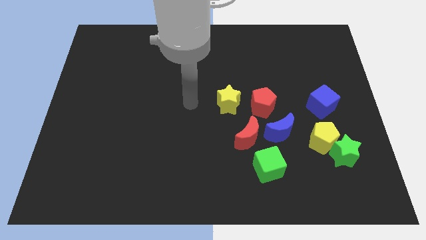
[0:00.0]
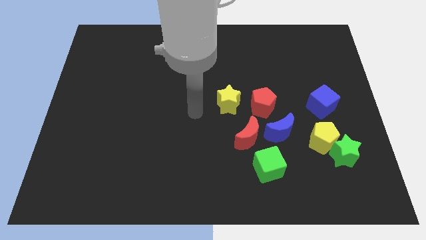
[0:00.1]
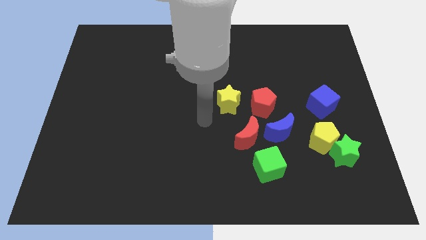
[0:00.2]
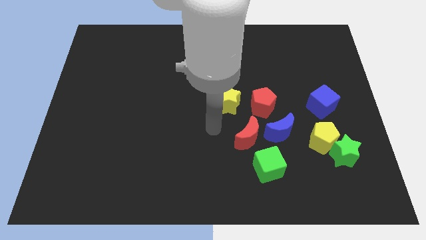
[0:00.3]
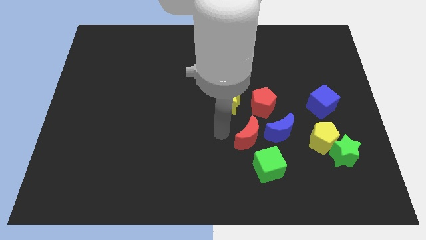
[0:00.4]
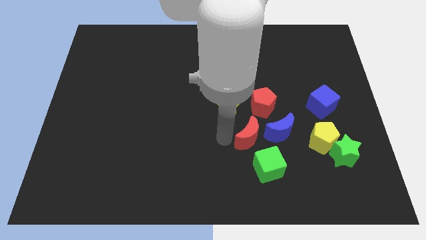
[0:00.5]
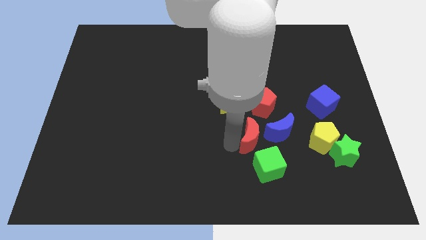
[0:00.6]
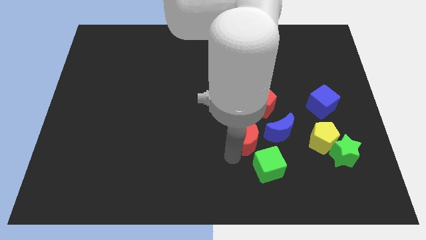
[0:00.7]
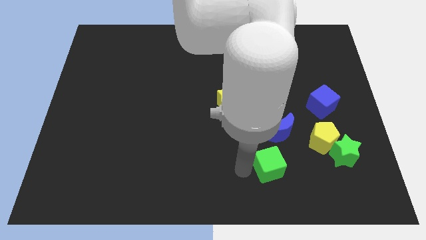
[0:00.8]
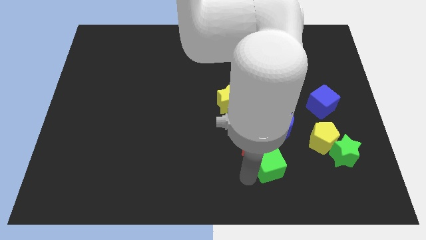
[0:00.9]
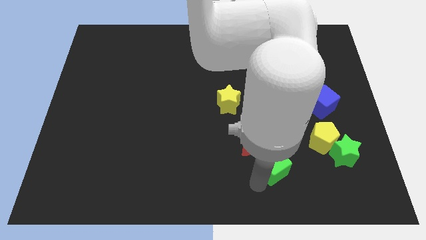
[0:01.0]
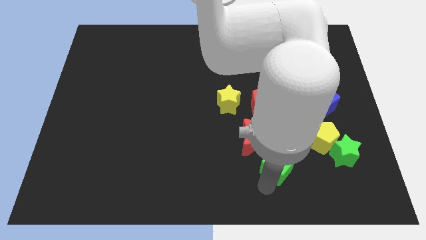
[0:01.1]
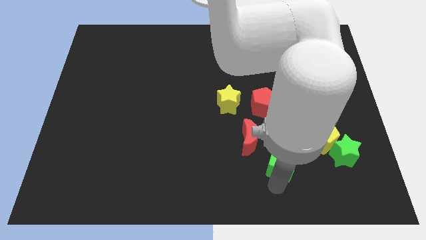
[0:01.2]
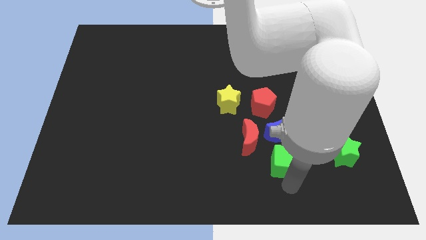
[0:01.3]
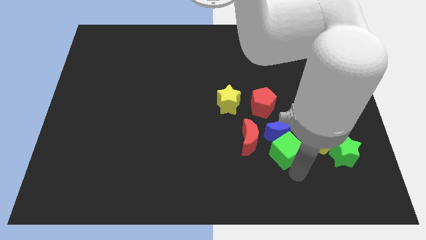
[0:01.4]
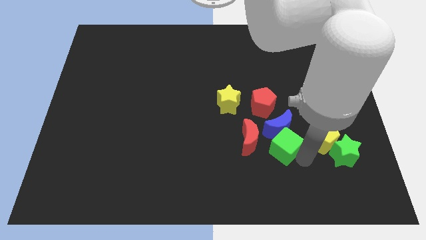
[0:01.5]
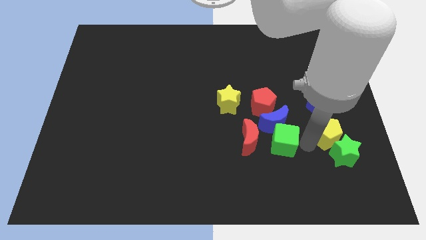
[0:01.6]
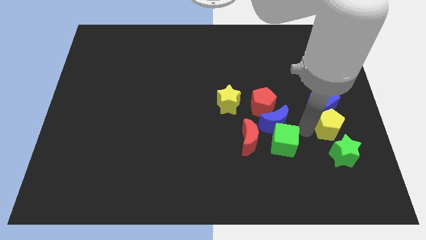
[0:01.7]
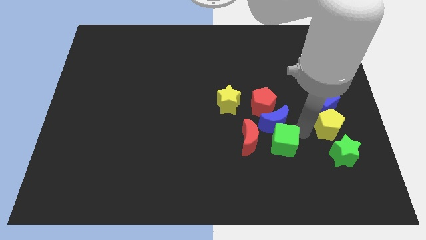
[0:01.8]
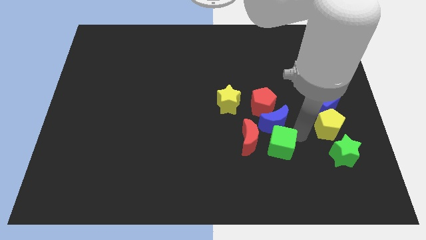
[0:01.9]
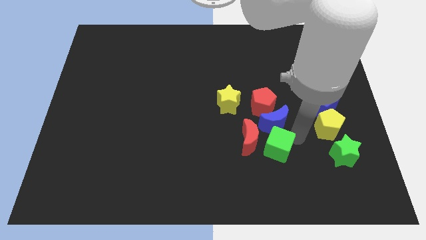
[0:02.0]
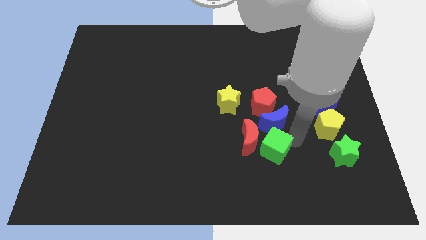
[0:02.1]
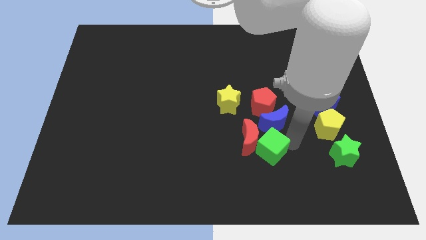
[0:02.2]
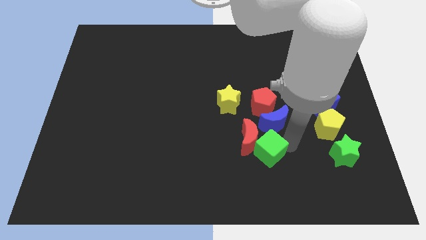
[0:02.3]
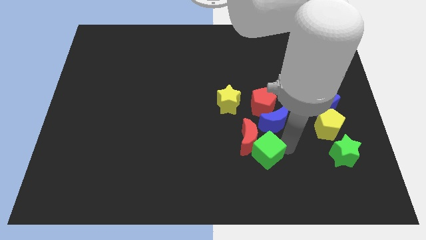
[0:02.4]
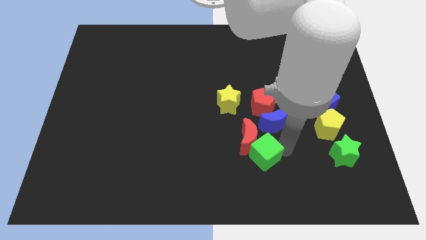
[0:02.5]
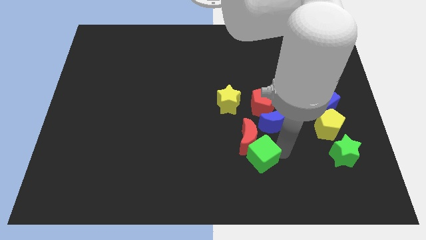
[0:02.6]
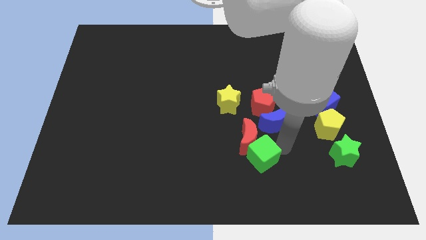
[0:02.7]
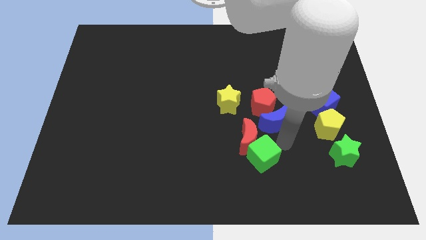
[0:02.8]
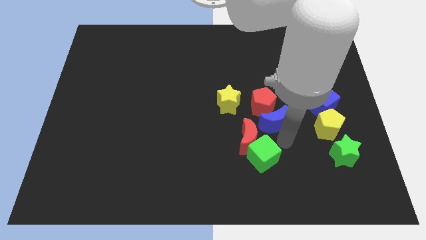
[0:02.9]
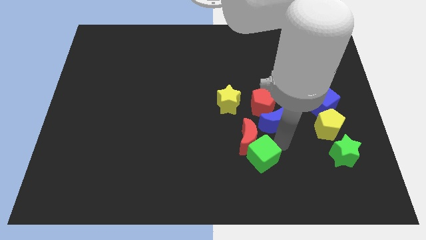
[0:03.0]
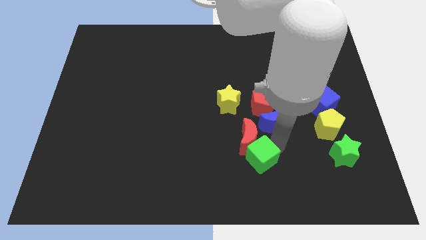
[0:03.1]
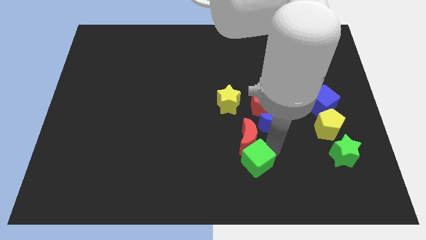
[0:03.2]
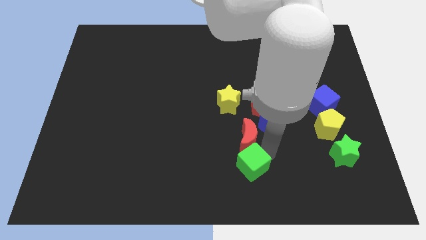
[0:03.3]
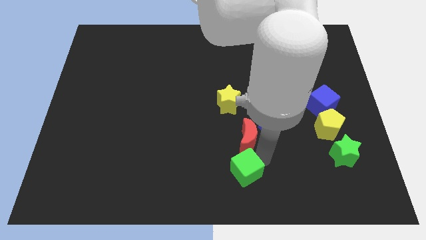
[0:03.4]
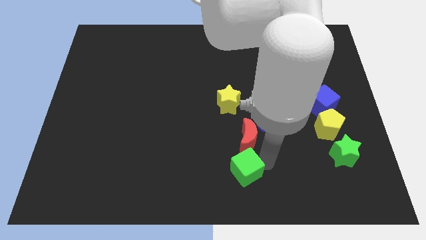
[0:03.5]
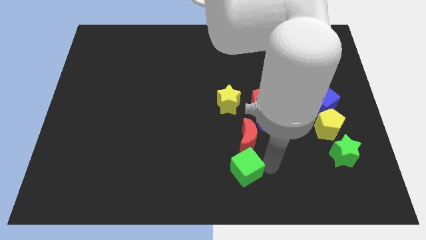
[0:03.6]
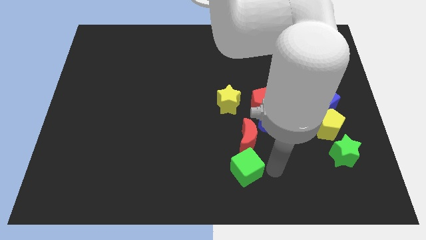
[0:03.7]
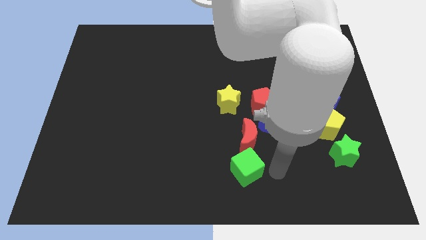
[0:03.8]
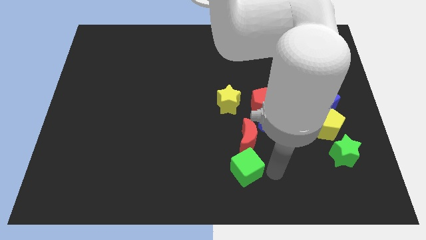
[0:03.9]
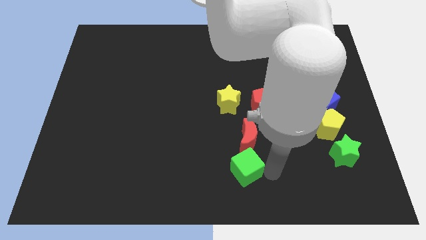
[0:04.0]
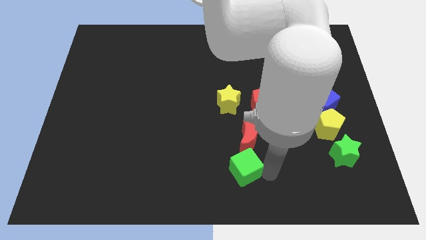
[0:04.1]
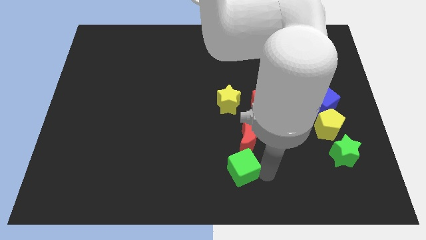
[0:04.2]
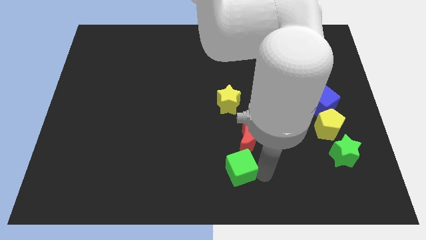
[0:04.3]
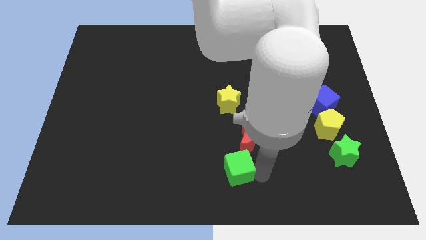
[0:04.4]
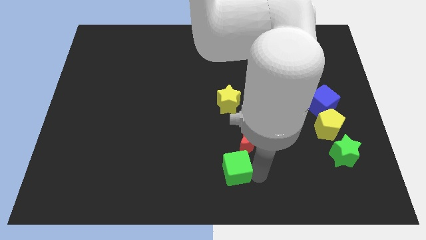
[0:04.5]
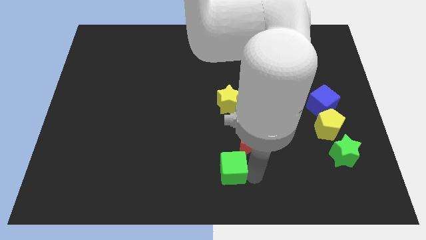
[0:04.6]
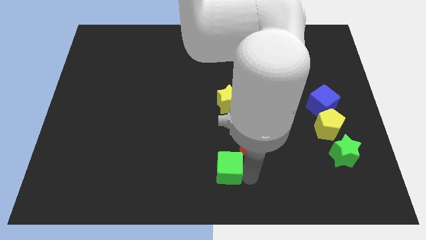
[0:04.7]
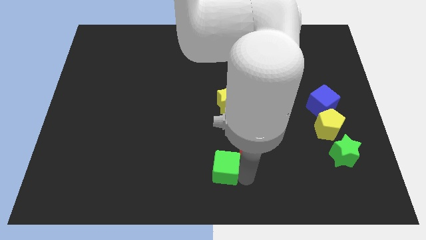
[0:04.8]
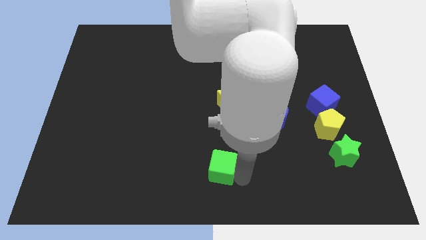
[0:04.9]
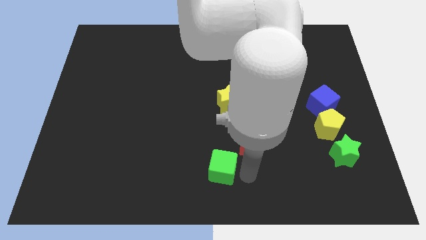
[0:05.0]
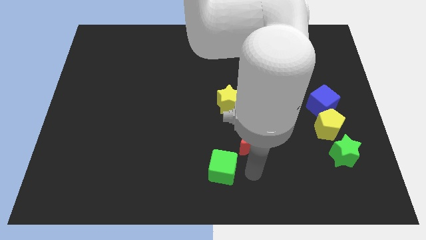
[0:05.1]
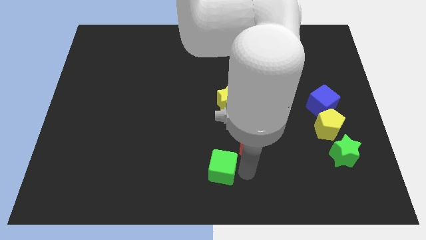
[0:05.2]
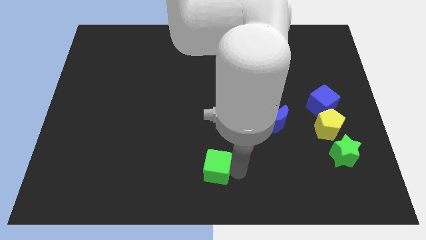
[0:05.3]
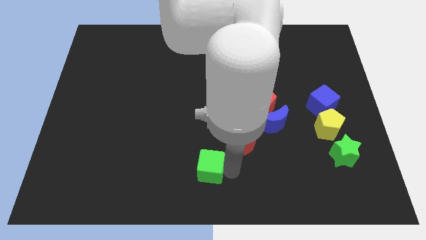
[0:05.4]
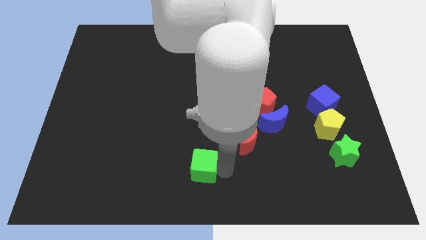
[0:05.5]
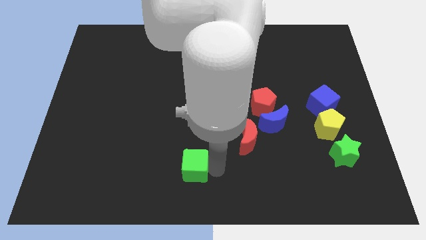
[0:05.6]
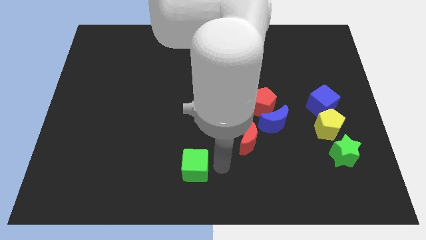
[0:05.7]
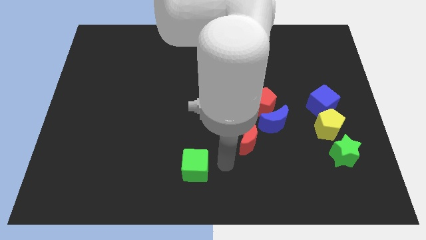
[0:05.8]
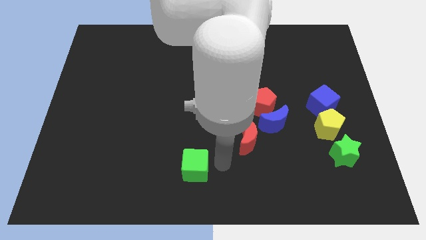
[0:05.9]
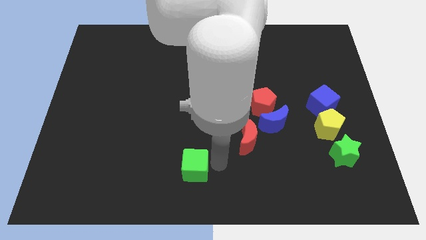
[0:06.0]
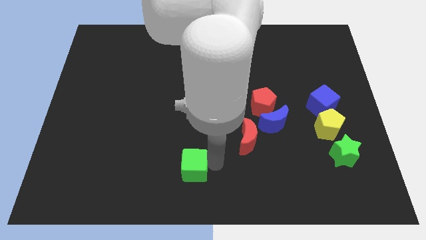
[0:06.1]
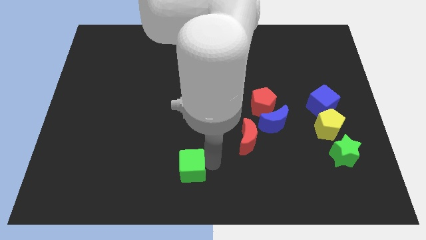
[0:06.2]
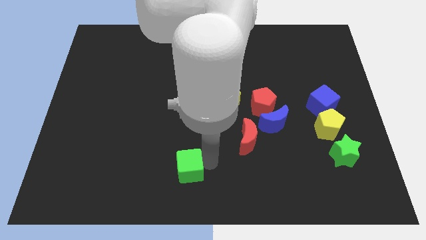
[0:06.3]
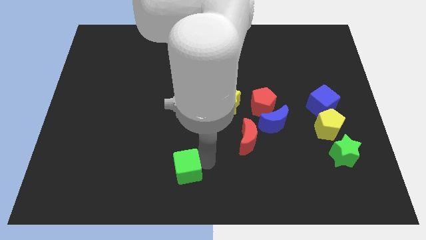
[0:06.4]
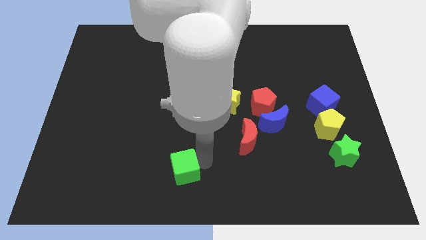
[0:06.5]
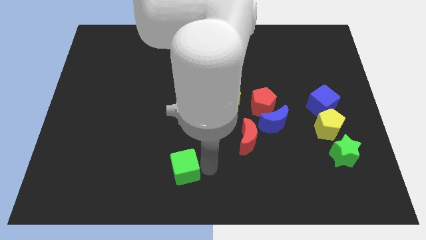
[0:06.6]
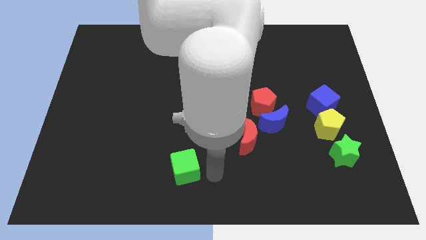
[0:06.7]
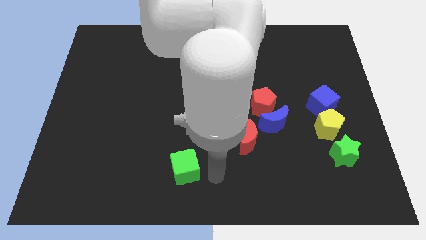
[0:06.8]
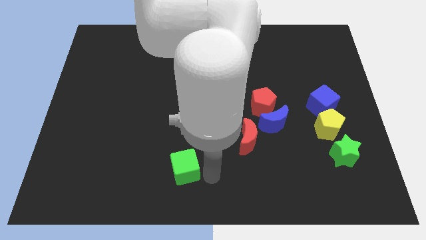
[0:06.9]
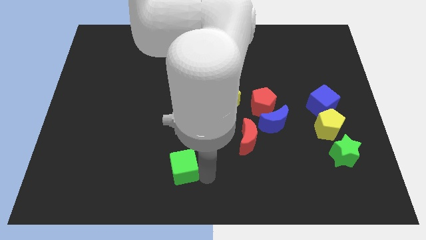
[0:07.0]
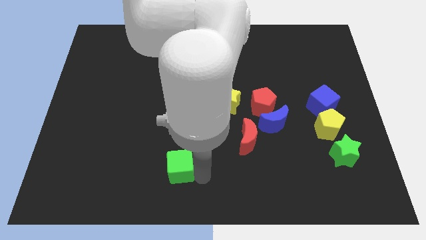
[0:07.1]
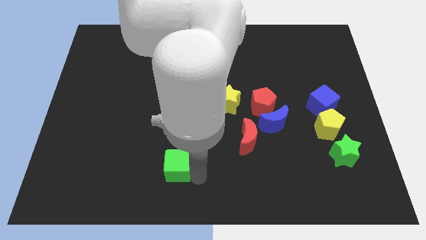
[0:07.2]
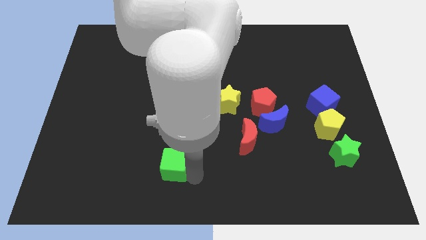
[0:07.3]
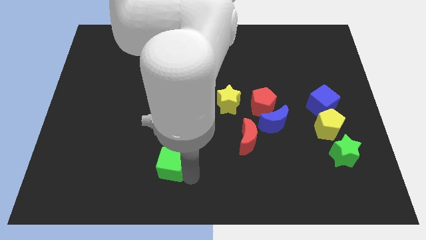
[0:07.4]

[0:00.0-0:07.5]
slide the green cube left

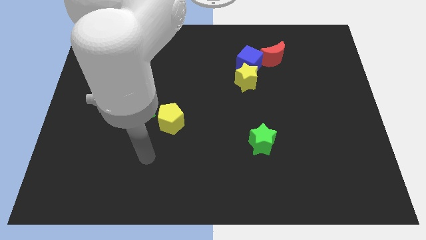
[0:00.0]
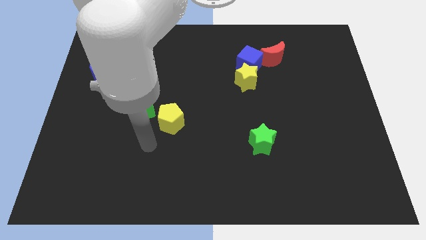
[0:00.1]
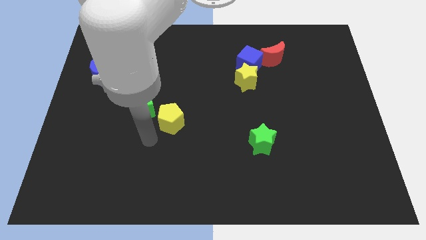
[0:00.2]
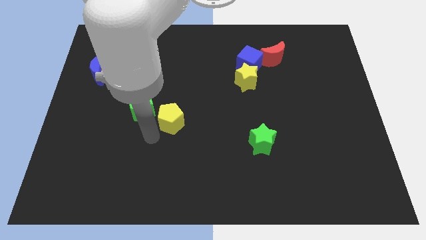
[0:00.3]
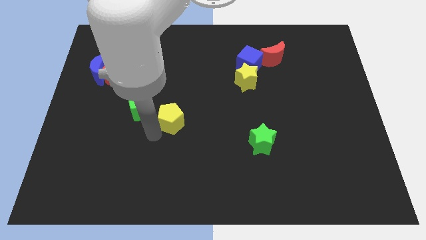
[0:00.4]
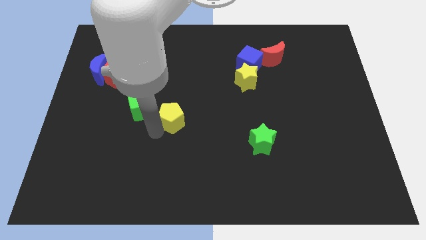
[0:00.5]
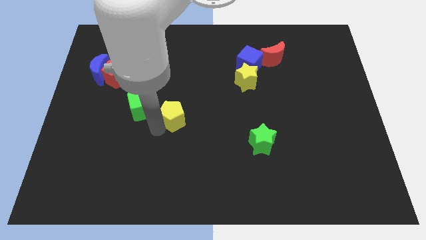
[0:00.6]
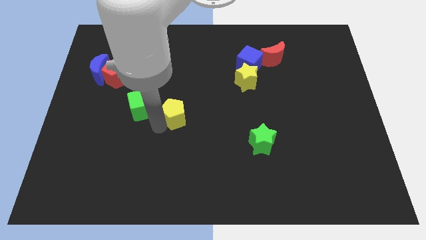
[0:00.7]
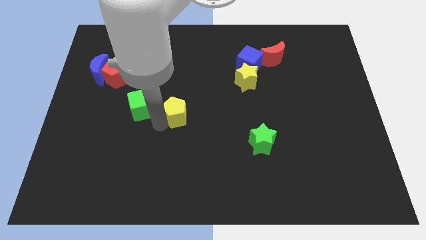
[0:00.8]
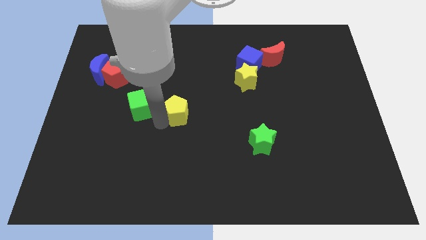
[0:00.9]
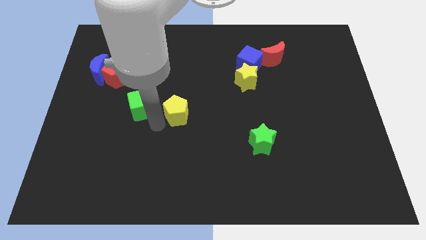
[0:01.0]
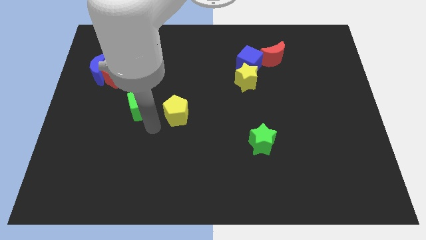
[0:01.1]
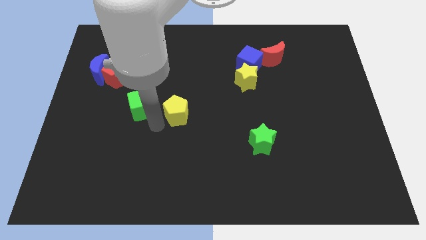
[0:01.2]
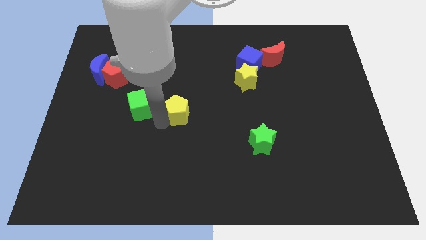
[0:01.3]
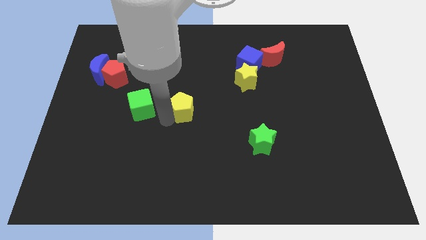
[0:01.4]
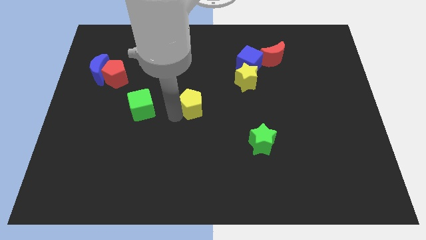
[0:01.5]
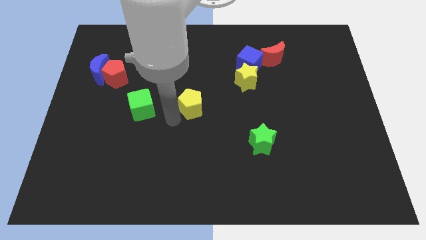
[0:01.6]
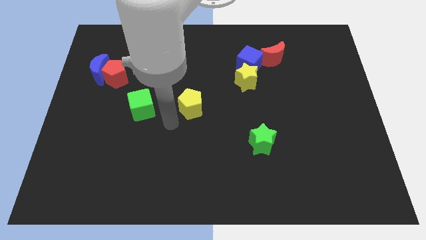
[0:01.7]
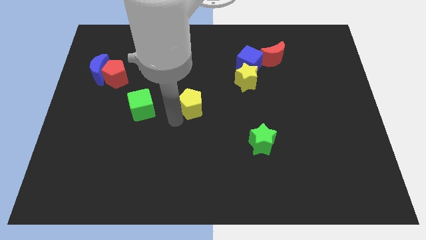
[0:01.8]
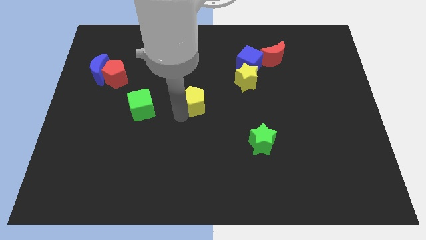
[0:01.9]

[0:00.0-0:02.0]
slide the yellow pentagon somewhat upwards and to the right
